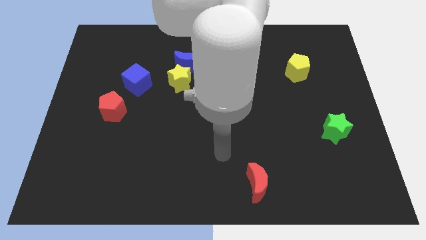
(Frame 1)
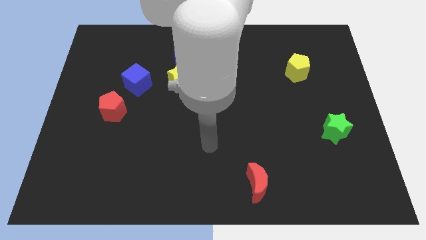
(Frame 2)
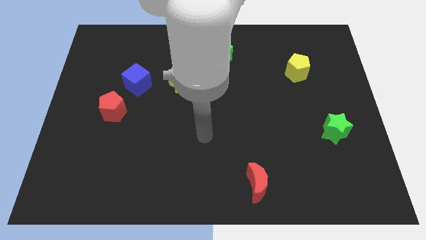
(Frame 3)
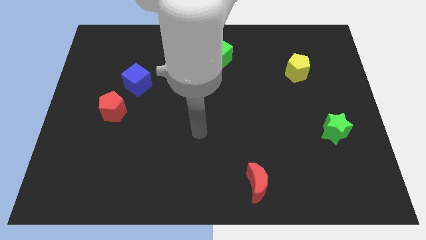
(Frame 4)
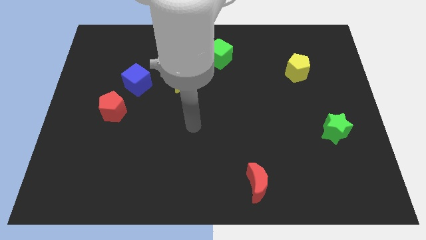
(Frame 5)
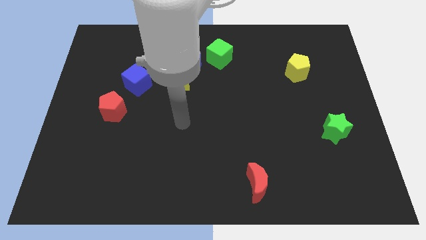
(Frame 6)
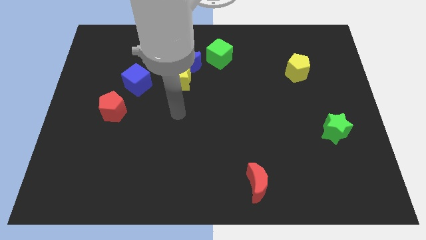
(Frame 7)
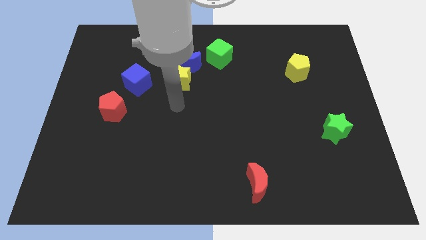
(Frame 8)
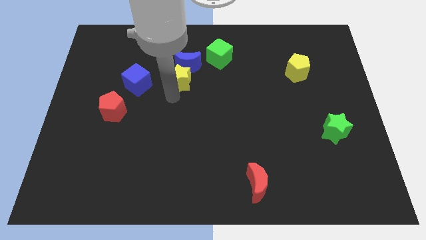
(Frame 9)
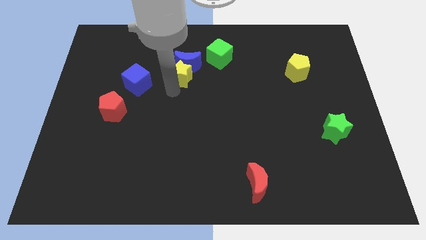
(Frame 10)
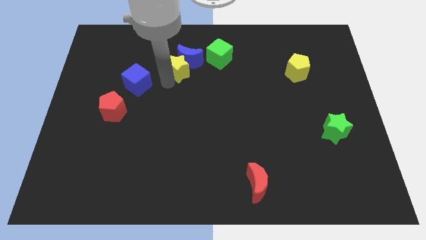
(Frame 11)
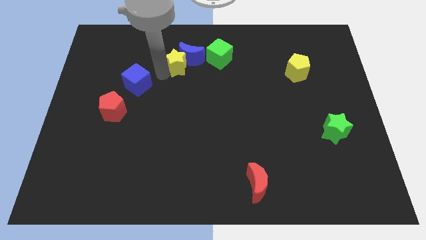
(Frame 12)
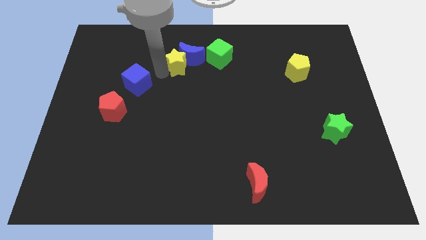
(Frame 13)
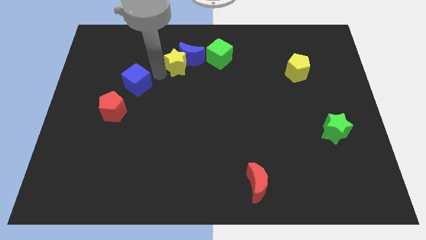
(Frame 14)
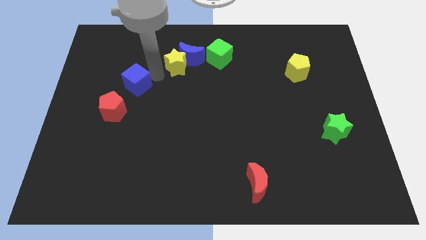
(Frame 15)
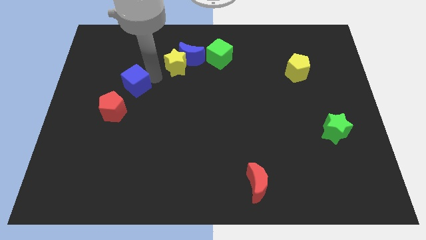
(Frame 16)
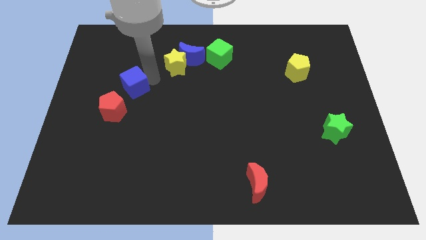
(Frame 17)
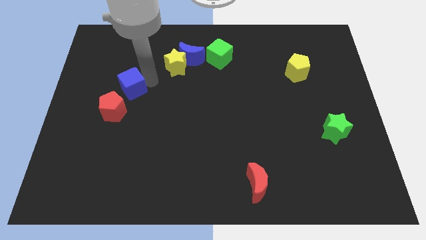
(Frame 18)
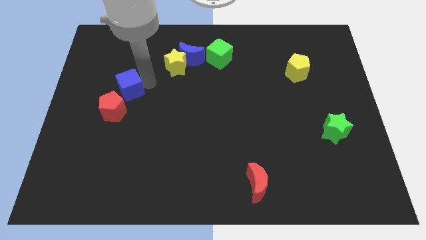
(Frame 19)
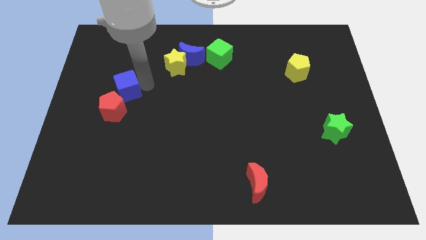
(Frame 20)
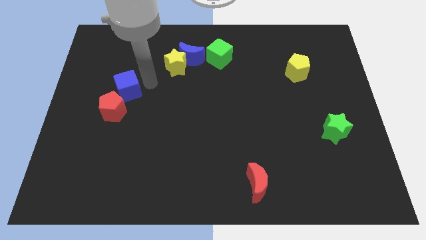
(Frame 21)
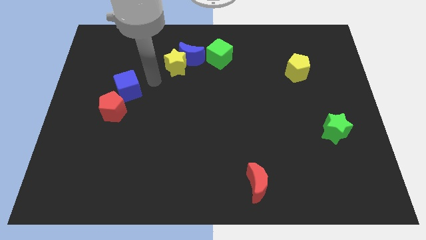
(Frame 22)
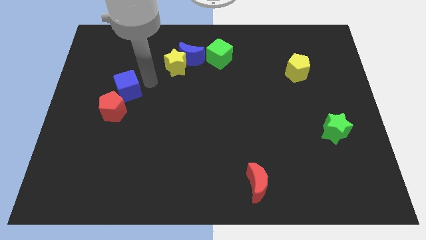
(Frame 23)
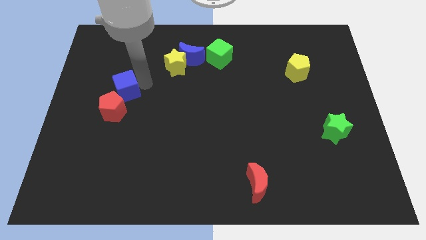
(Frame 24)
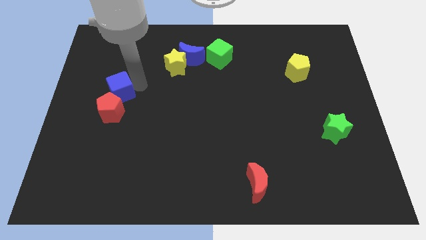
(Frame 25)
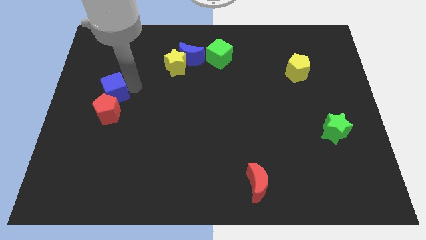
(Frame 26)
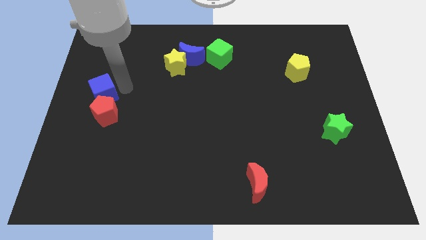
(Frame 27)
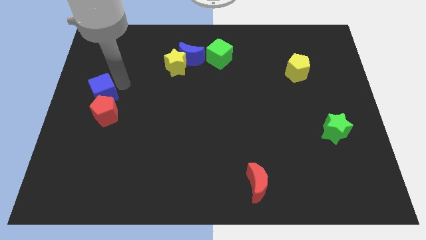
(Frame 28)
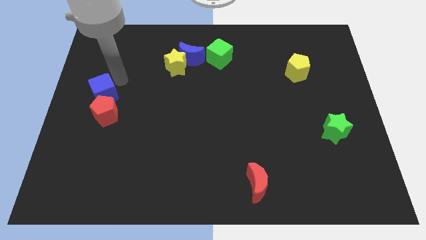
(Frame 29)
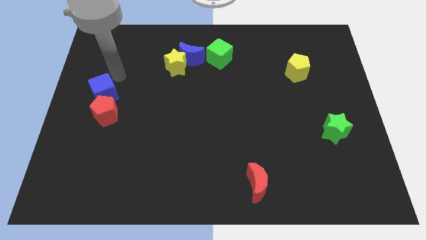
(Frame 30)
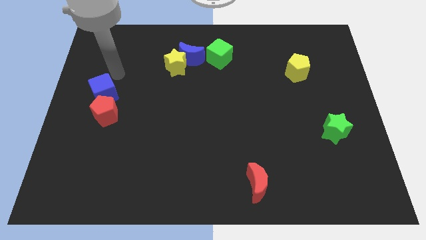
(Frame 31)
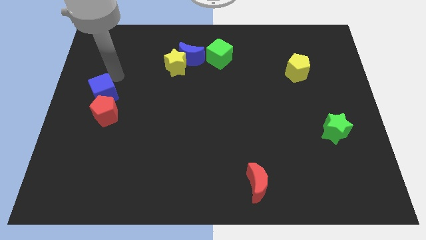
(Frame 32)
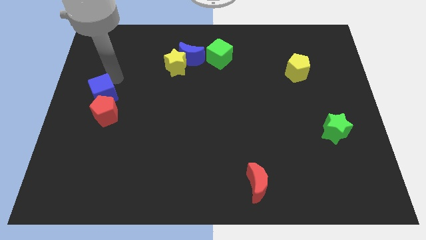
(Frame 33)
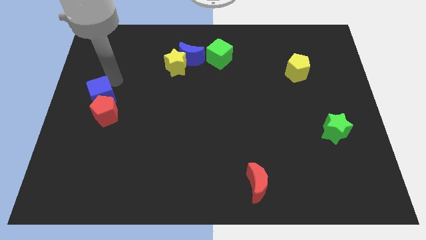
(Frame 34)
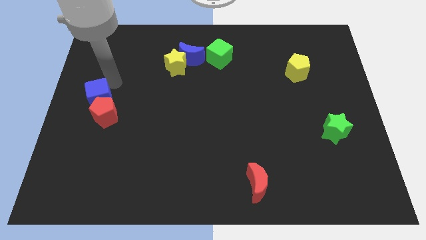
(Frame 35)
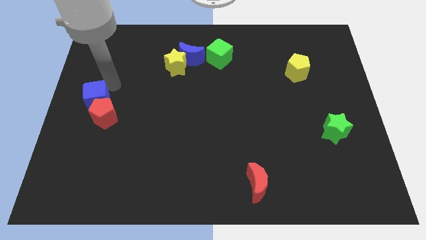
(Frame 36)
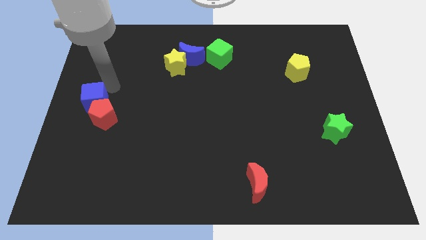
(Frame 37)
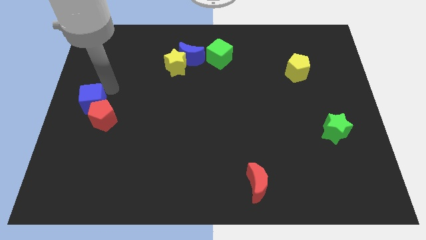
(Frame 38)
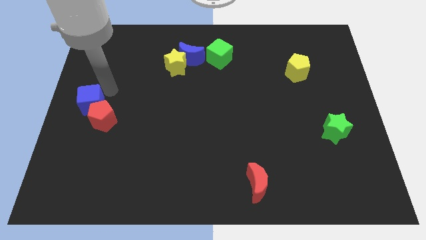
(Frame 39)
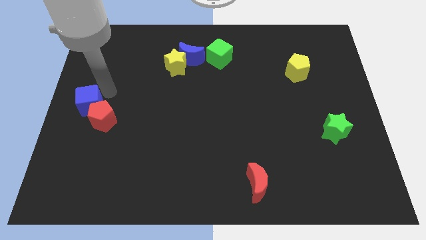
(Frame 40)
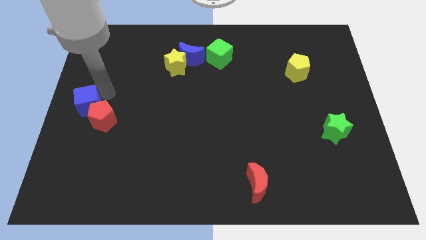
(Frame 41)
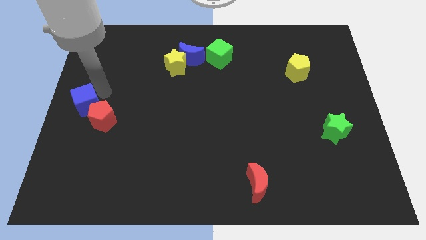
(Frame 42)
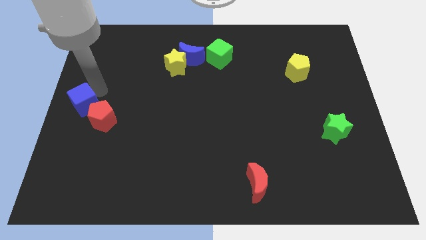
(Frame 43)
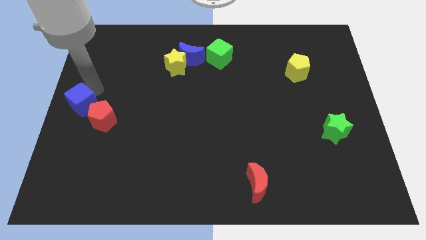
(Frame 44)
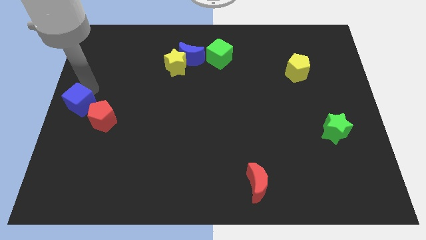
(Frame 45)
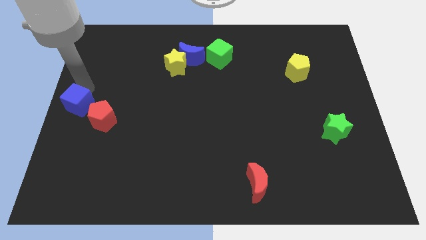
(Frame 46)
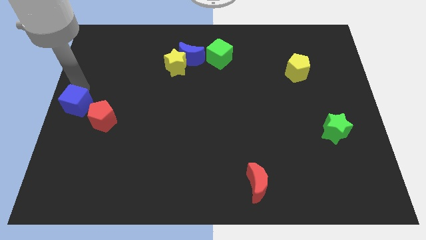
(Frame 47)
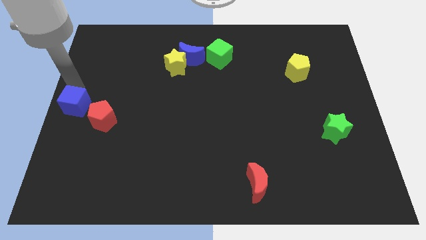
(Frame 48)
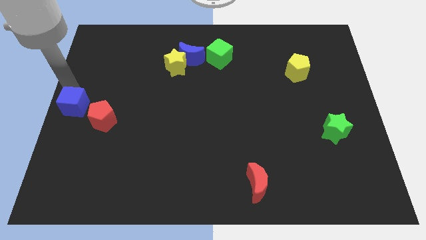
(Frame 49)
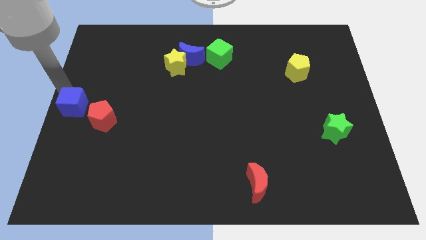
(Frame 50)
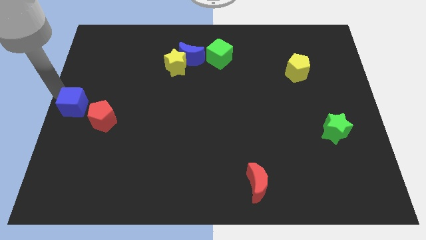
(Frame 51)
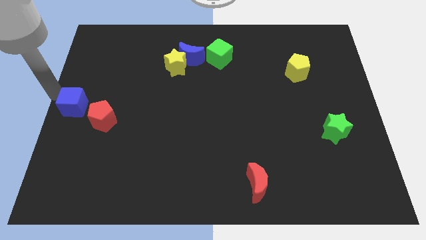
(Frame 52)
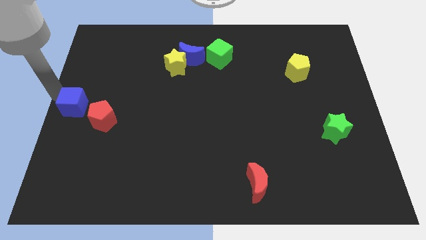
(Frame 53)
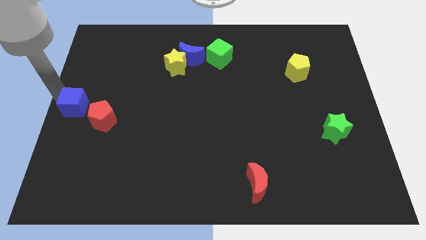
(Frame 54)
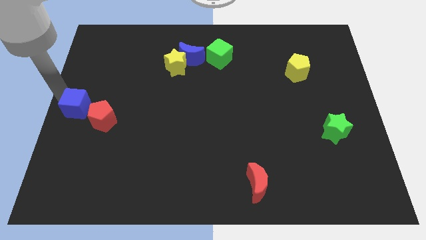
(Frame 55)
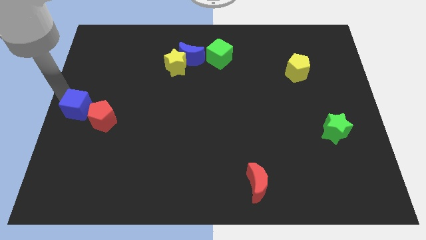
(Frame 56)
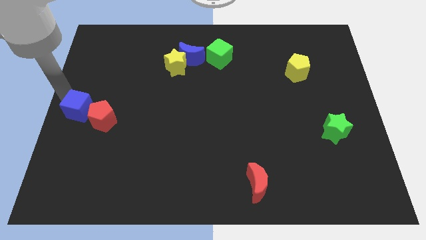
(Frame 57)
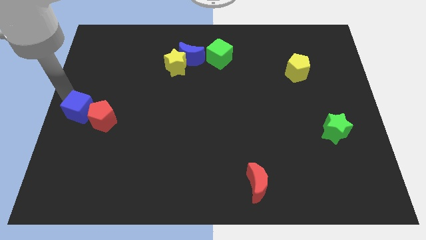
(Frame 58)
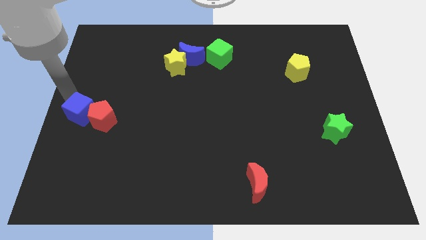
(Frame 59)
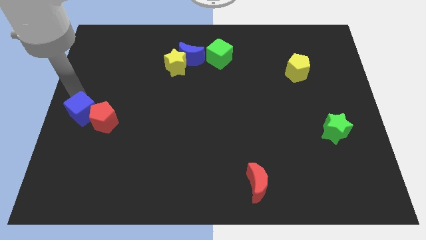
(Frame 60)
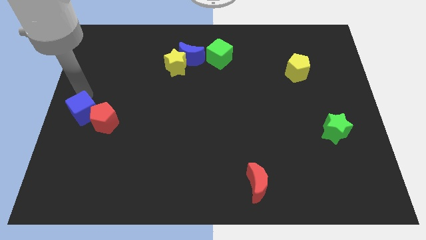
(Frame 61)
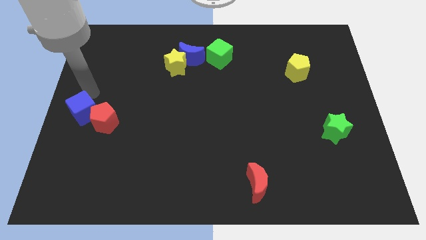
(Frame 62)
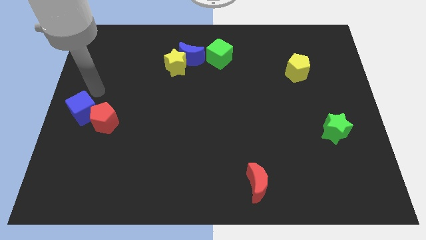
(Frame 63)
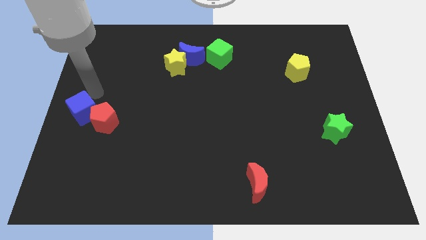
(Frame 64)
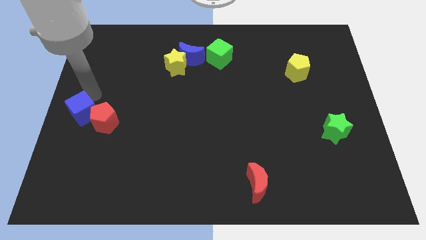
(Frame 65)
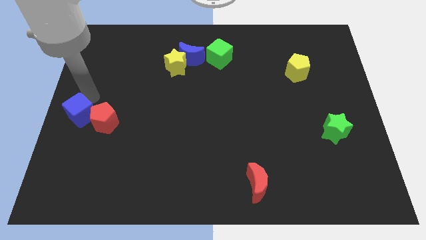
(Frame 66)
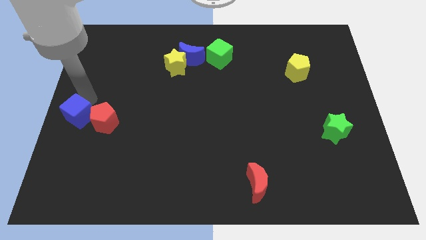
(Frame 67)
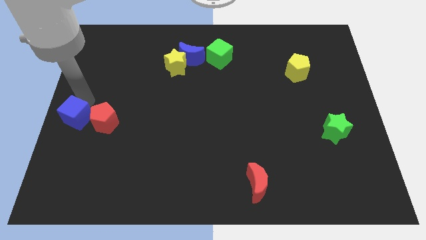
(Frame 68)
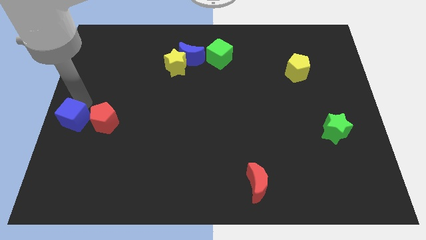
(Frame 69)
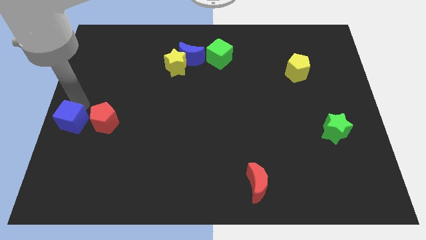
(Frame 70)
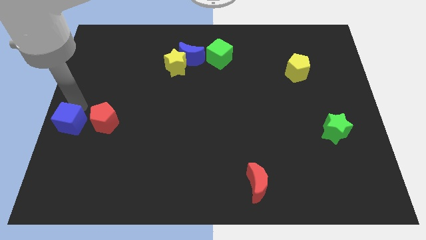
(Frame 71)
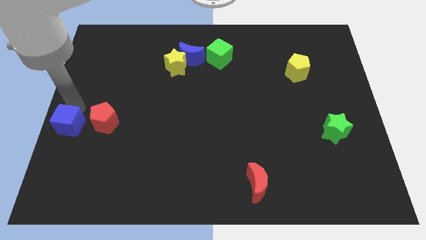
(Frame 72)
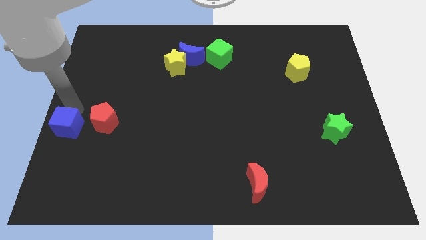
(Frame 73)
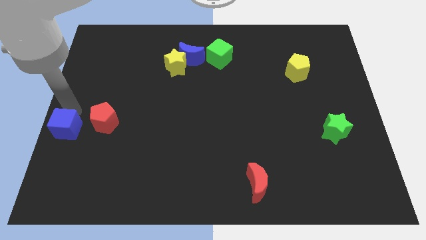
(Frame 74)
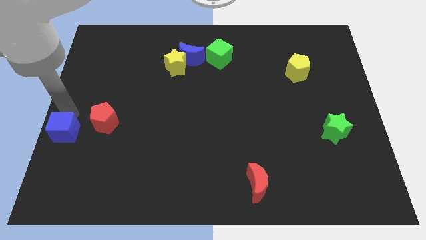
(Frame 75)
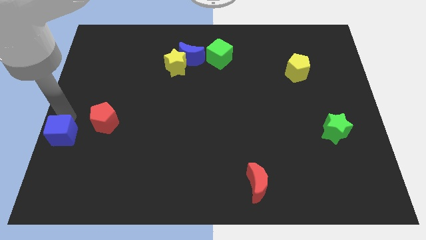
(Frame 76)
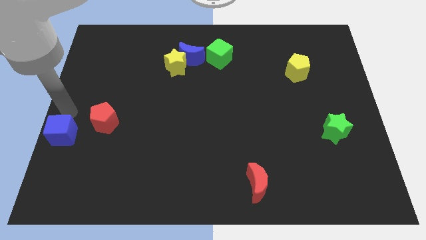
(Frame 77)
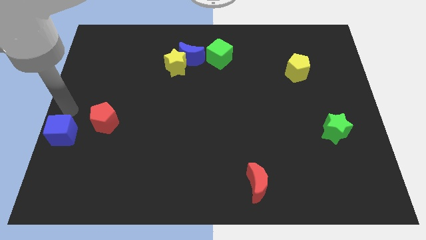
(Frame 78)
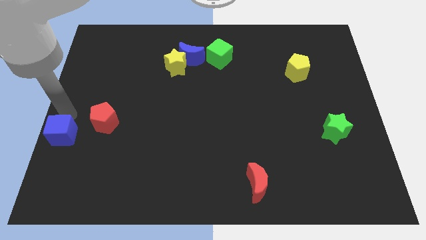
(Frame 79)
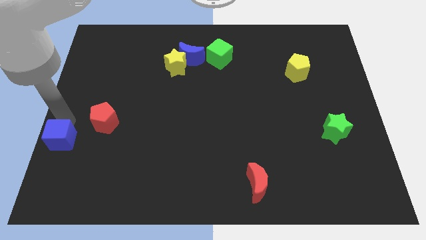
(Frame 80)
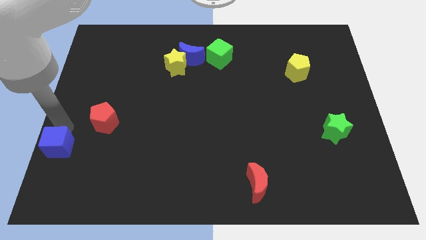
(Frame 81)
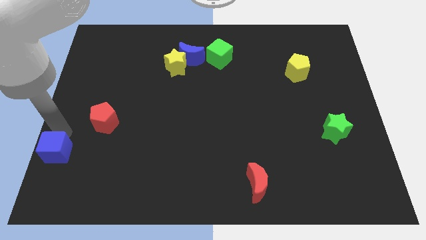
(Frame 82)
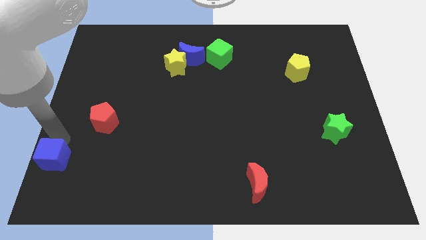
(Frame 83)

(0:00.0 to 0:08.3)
move the blue cube to the lower left corner
